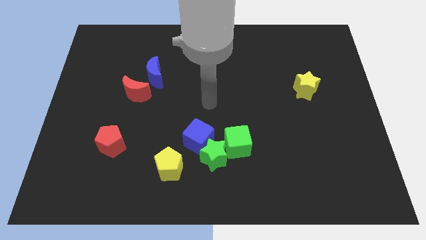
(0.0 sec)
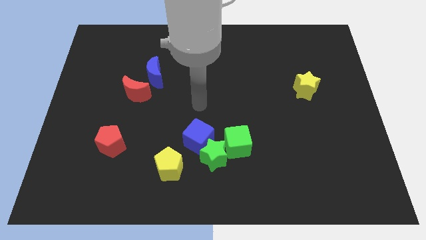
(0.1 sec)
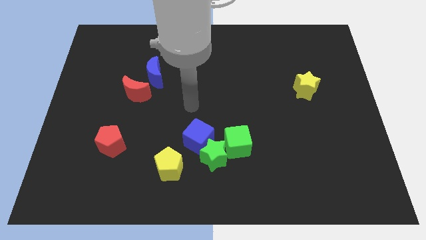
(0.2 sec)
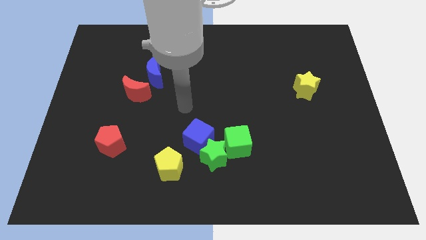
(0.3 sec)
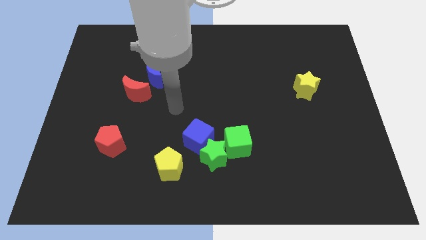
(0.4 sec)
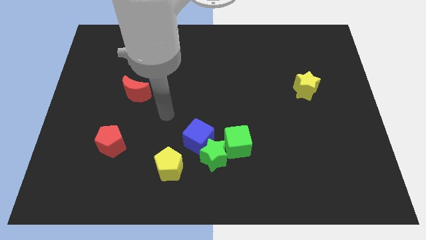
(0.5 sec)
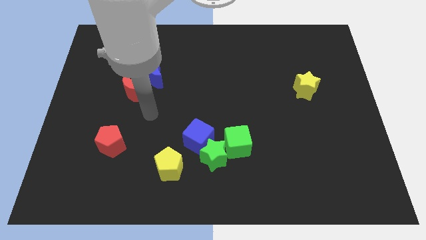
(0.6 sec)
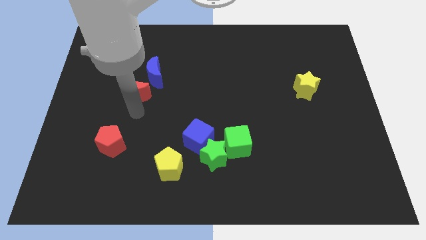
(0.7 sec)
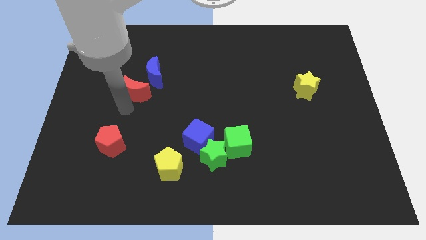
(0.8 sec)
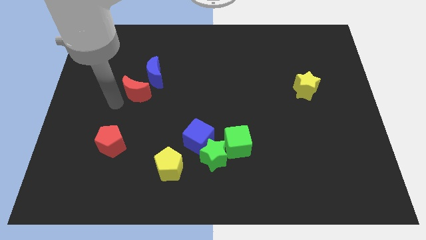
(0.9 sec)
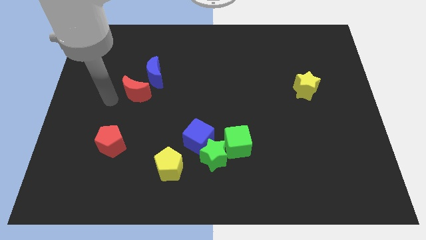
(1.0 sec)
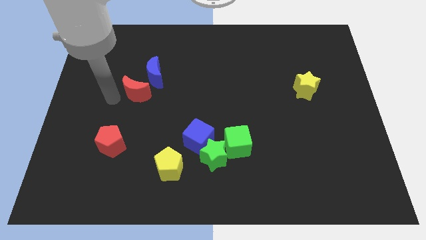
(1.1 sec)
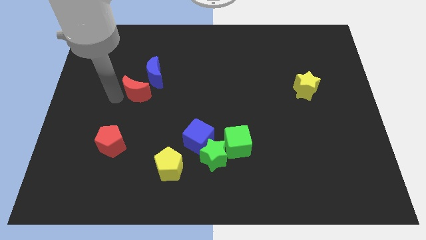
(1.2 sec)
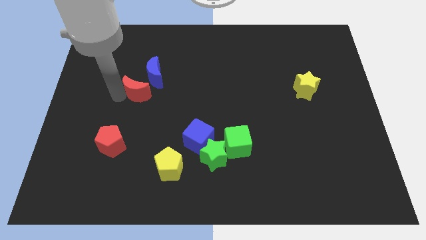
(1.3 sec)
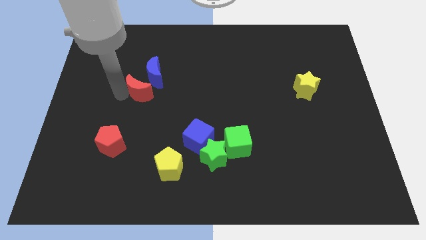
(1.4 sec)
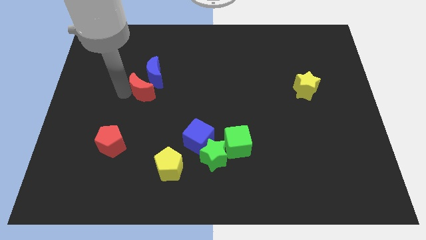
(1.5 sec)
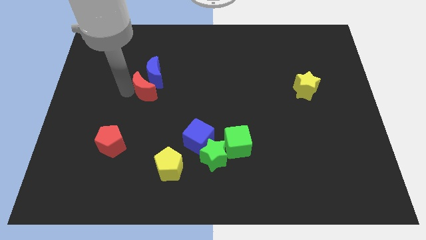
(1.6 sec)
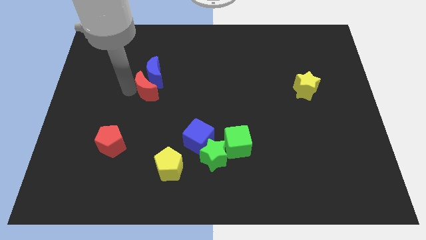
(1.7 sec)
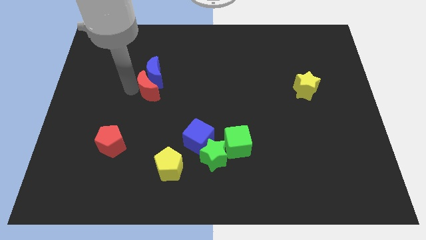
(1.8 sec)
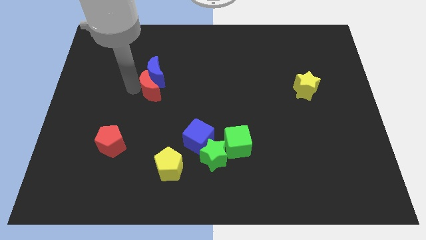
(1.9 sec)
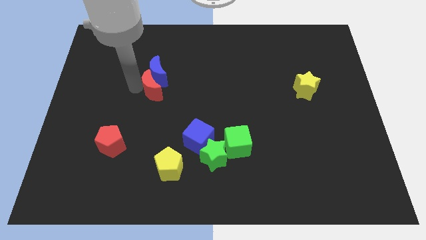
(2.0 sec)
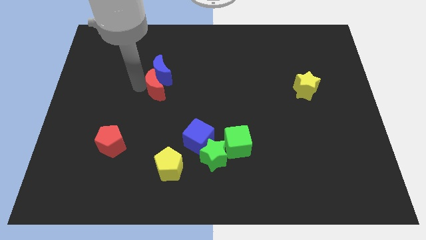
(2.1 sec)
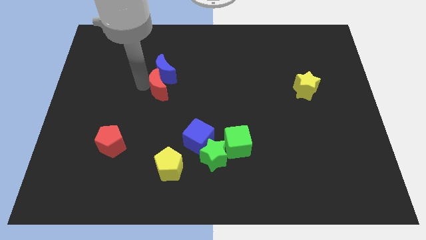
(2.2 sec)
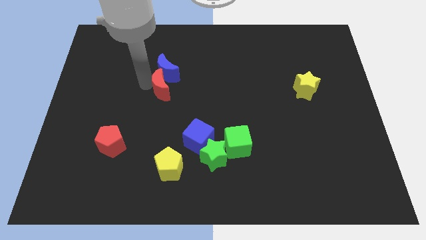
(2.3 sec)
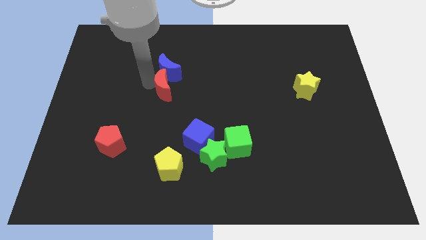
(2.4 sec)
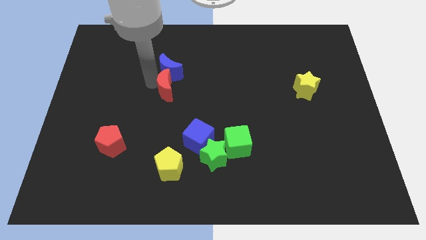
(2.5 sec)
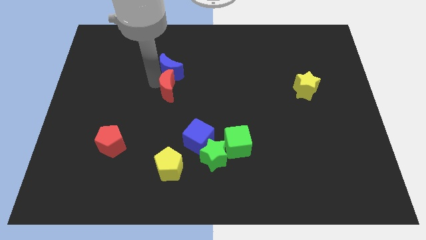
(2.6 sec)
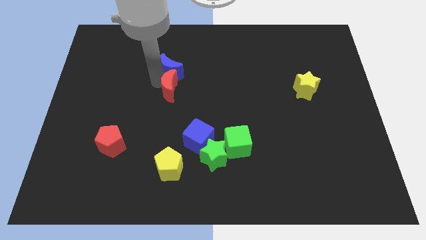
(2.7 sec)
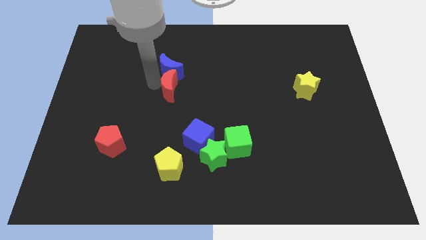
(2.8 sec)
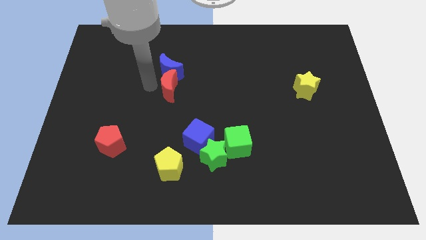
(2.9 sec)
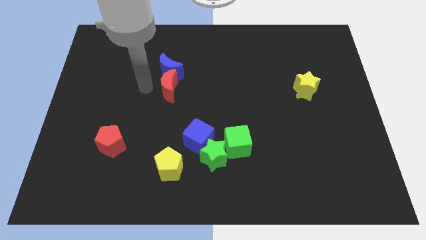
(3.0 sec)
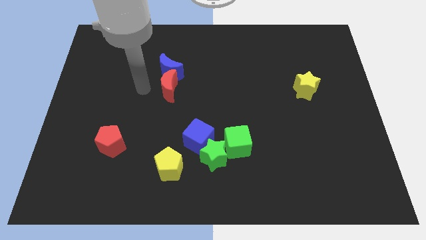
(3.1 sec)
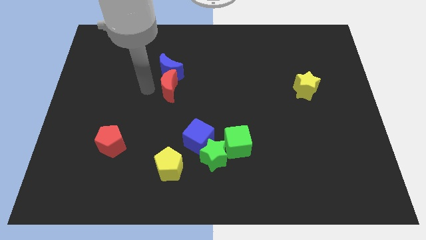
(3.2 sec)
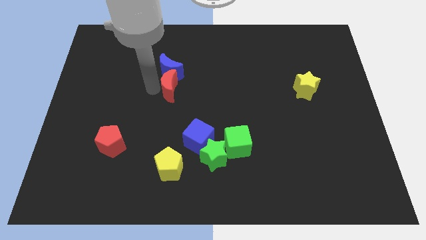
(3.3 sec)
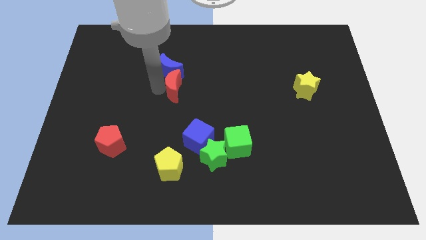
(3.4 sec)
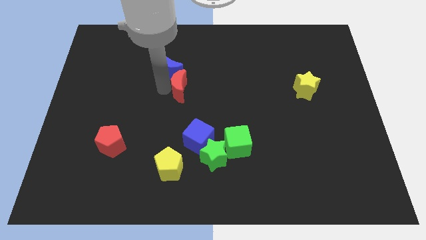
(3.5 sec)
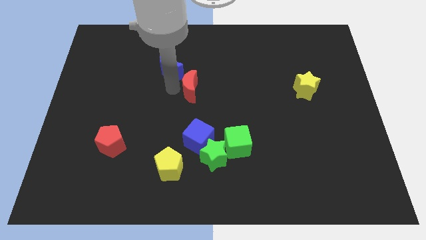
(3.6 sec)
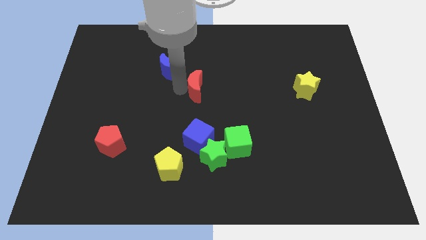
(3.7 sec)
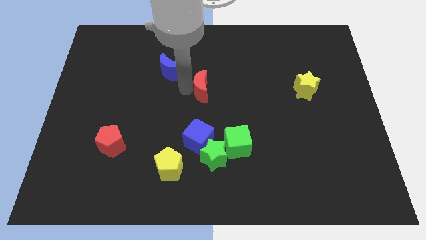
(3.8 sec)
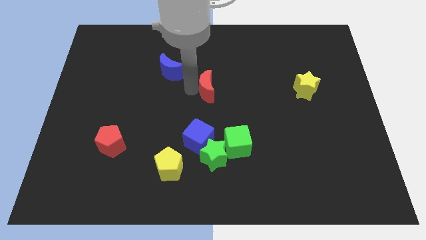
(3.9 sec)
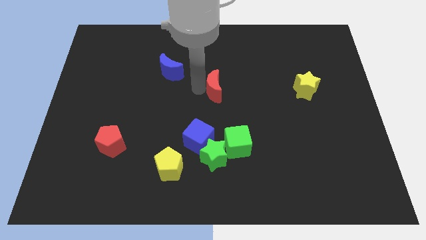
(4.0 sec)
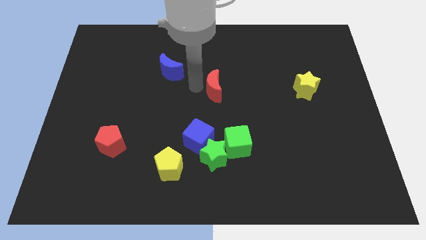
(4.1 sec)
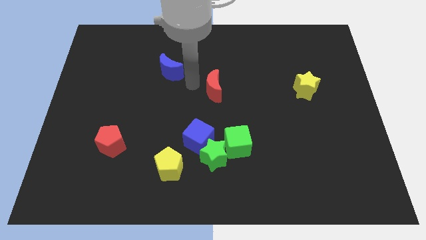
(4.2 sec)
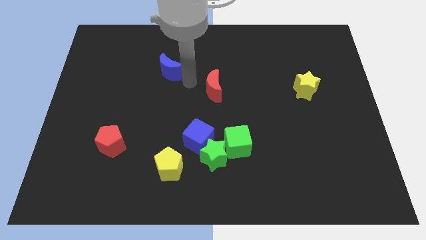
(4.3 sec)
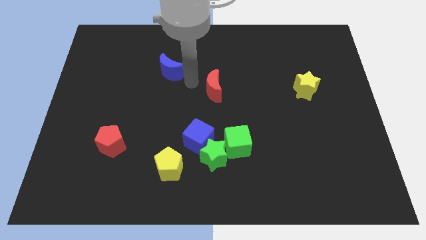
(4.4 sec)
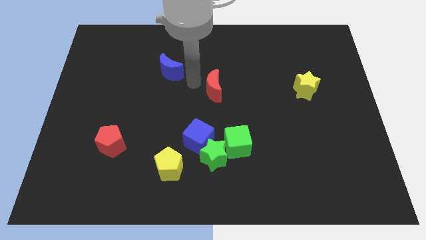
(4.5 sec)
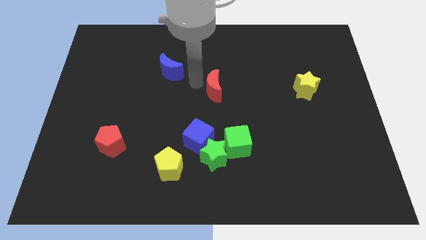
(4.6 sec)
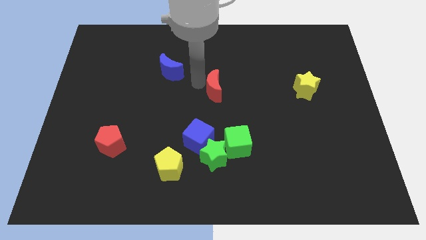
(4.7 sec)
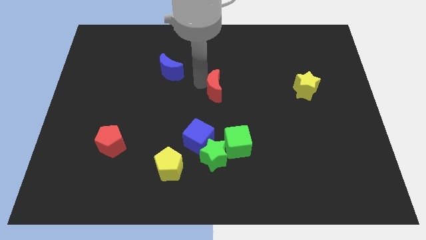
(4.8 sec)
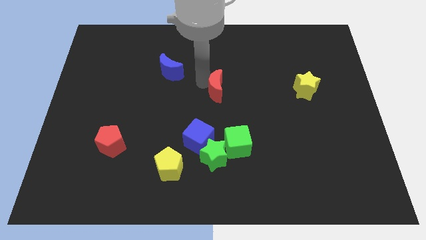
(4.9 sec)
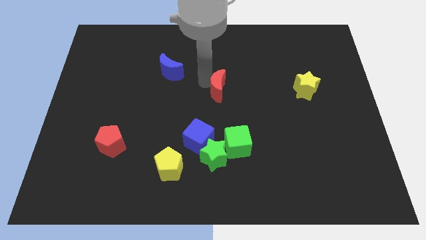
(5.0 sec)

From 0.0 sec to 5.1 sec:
push the red moon right

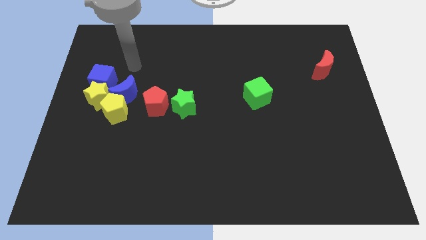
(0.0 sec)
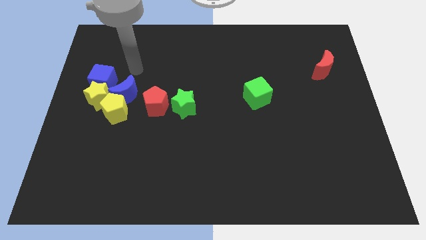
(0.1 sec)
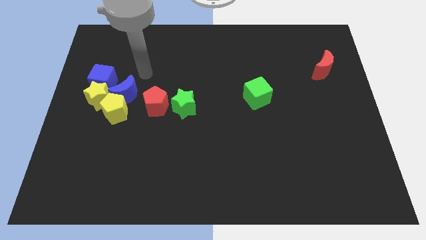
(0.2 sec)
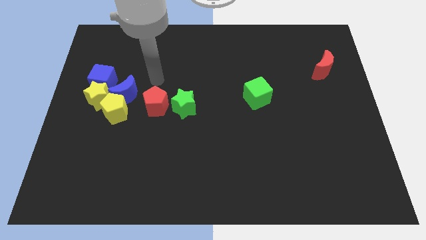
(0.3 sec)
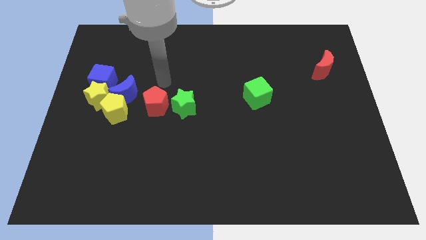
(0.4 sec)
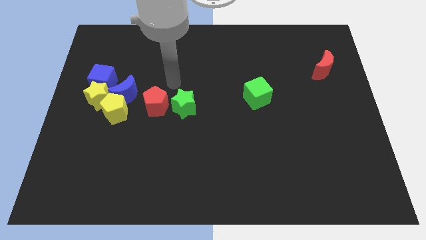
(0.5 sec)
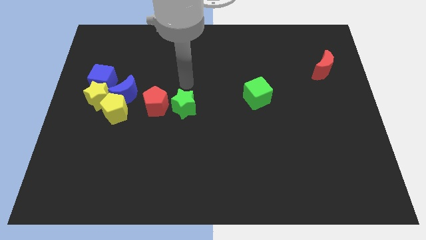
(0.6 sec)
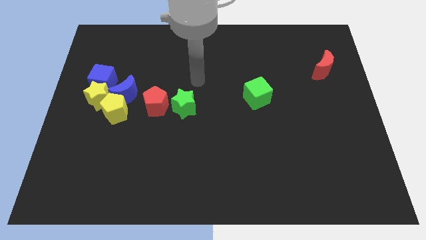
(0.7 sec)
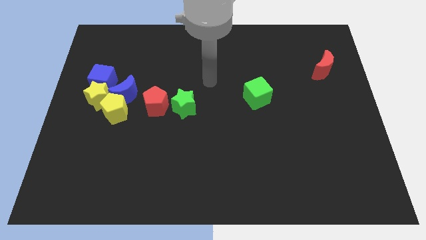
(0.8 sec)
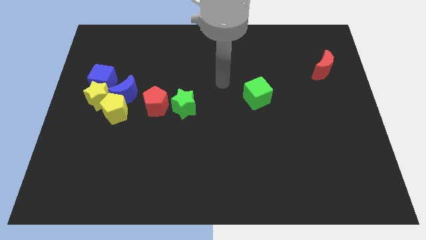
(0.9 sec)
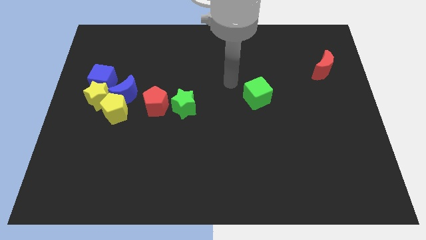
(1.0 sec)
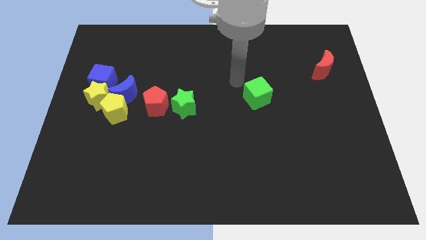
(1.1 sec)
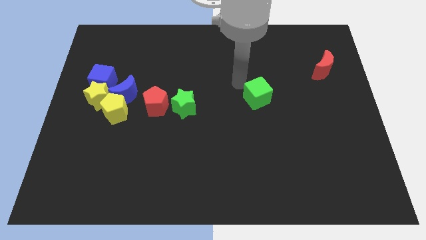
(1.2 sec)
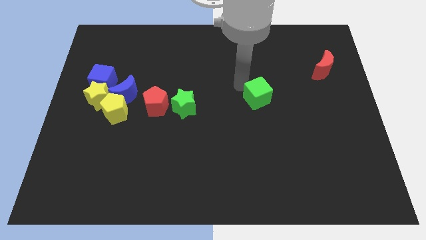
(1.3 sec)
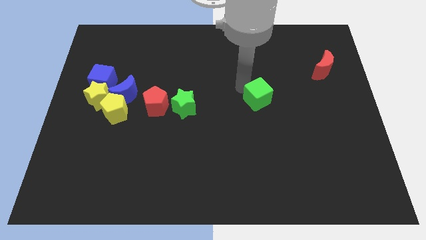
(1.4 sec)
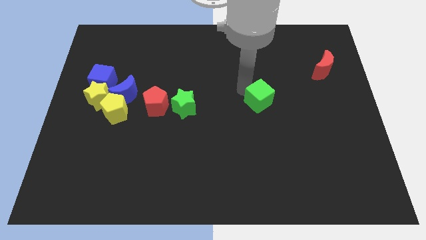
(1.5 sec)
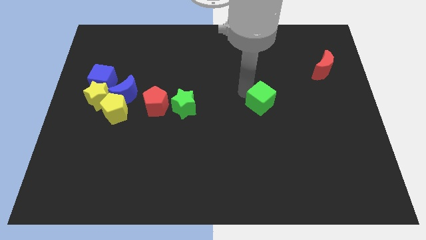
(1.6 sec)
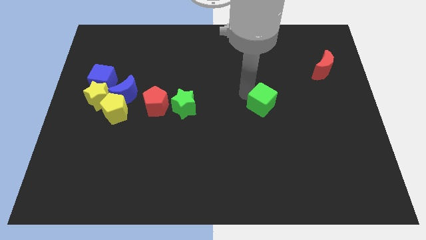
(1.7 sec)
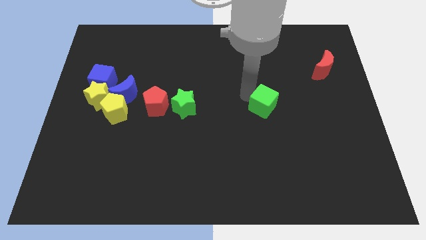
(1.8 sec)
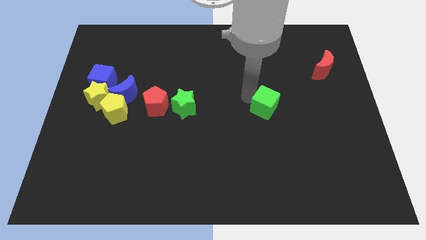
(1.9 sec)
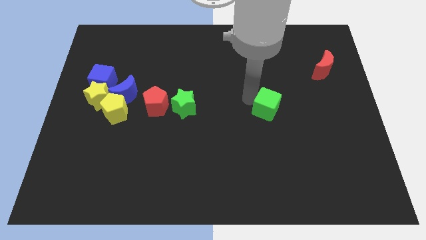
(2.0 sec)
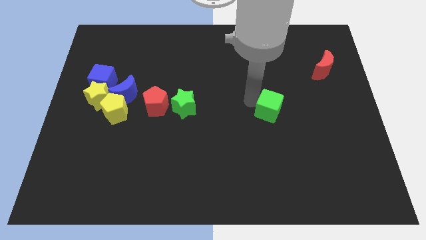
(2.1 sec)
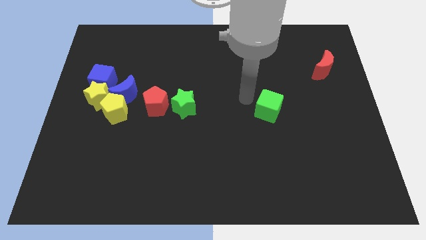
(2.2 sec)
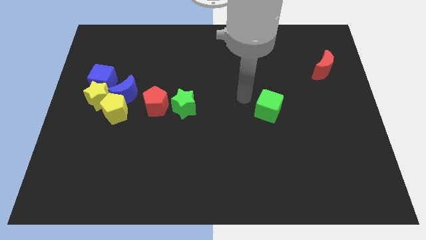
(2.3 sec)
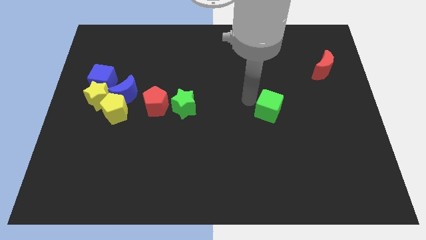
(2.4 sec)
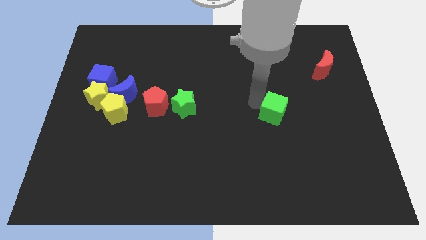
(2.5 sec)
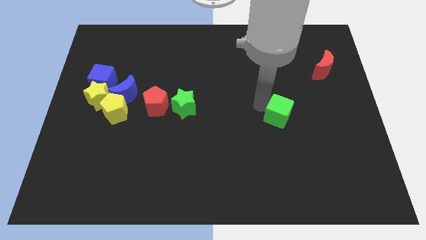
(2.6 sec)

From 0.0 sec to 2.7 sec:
move the green cube downwards and right diagonally somewhat

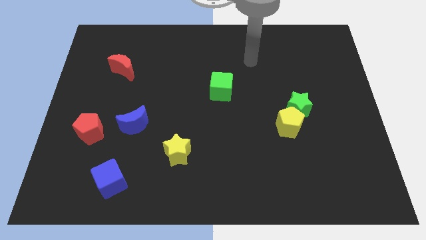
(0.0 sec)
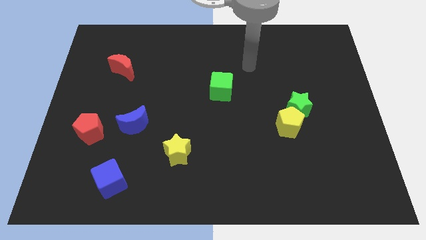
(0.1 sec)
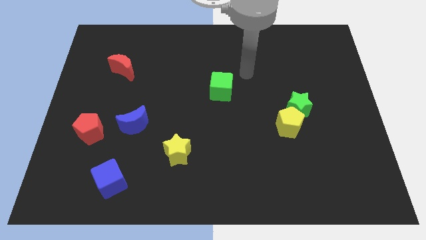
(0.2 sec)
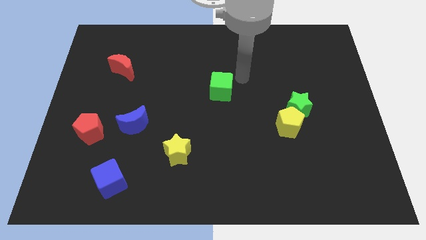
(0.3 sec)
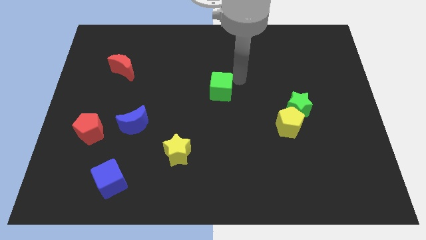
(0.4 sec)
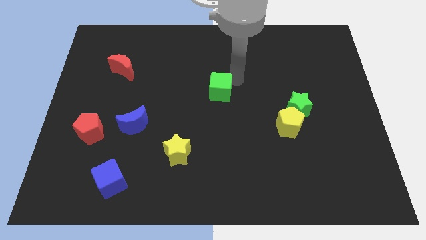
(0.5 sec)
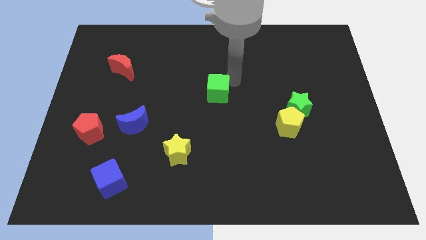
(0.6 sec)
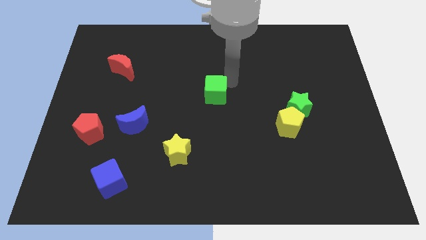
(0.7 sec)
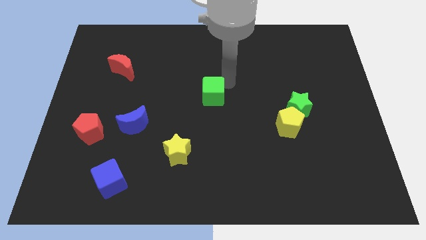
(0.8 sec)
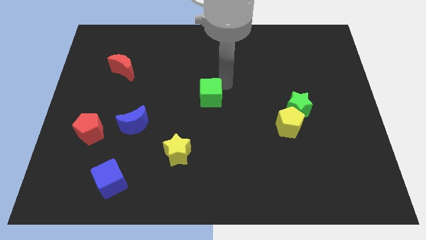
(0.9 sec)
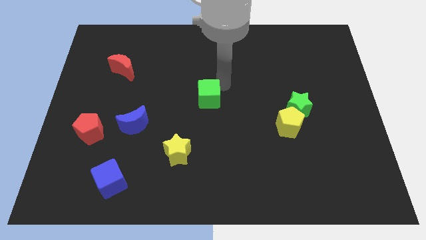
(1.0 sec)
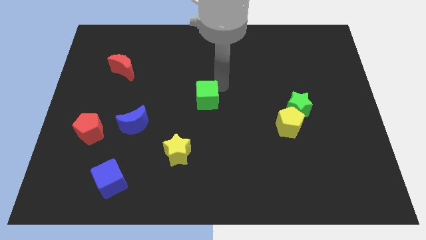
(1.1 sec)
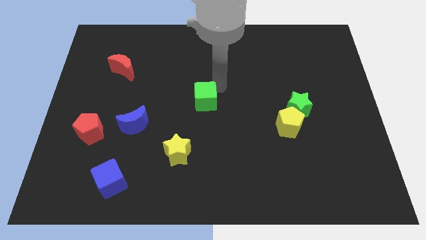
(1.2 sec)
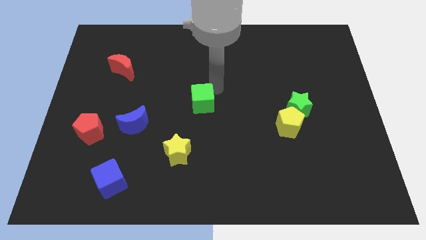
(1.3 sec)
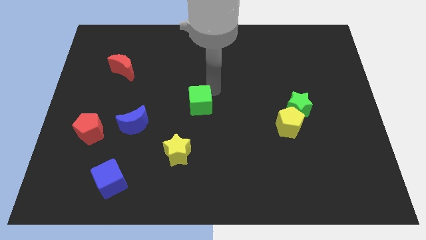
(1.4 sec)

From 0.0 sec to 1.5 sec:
push the green cube a little bit down and then to the left
